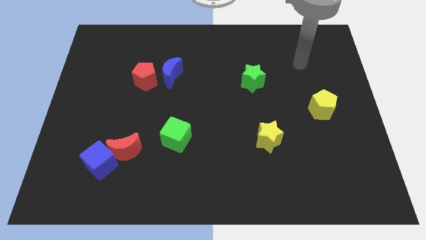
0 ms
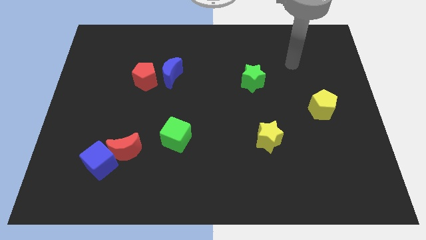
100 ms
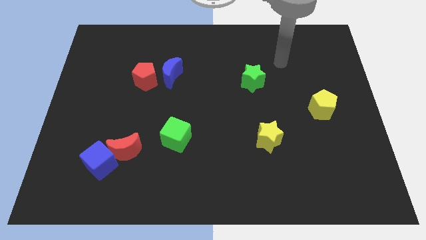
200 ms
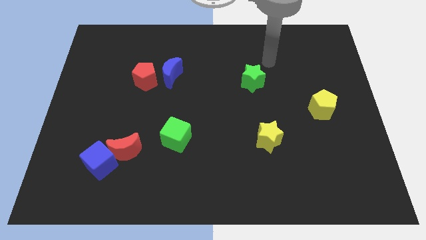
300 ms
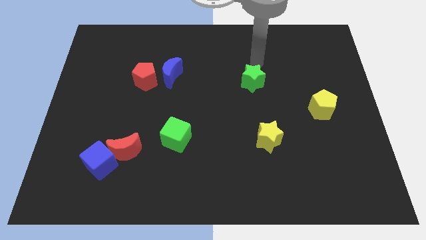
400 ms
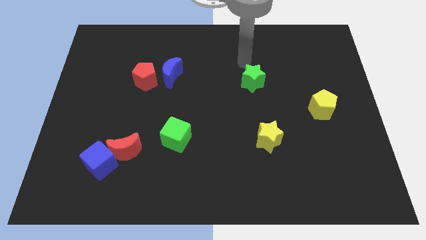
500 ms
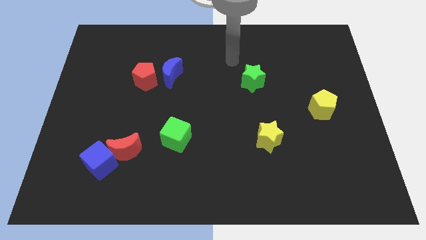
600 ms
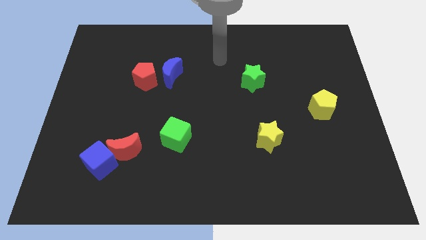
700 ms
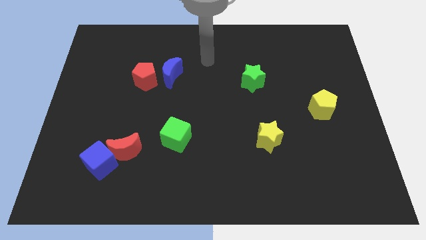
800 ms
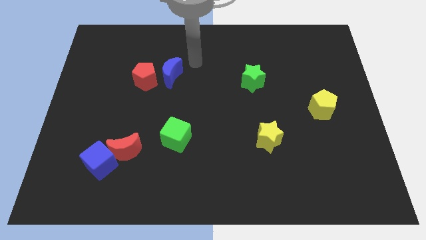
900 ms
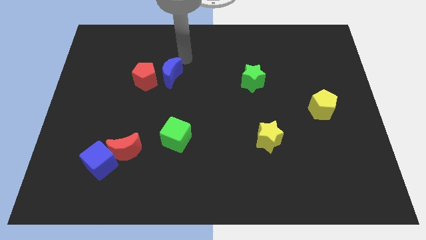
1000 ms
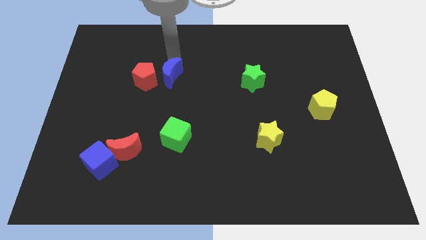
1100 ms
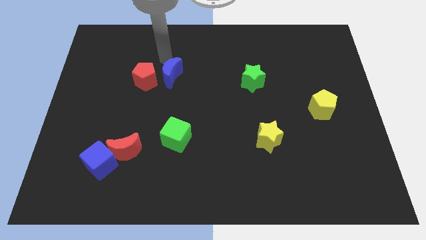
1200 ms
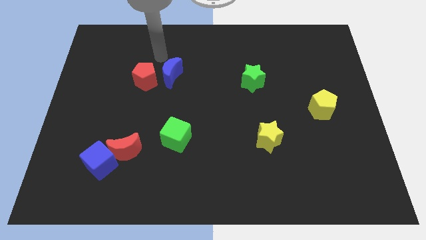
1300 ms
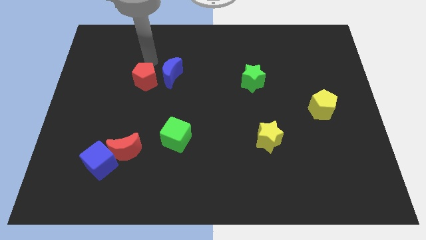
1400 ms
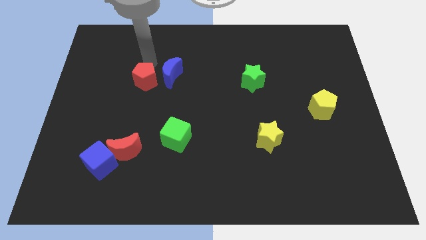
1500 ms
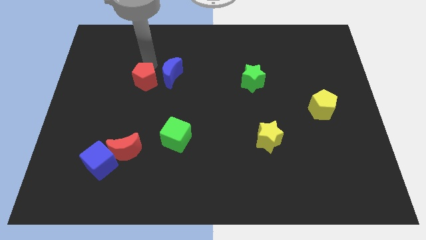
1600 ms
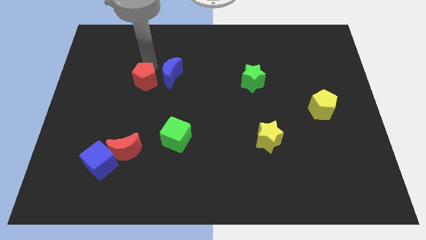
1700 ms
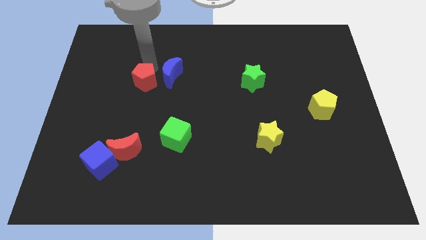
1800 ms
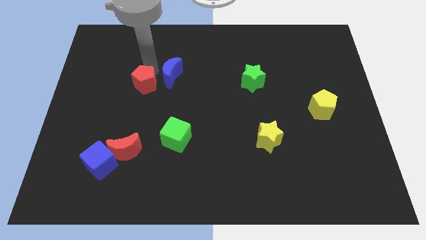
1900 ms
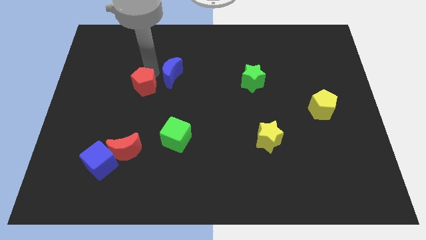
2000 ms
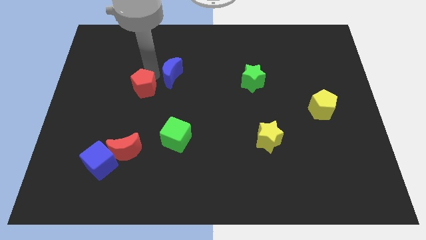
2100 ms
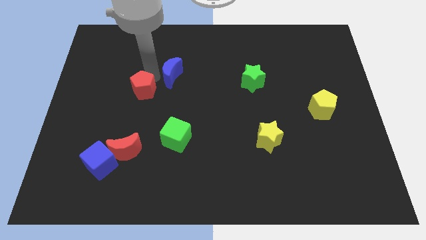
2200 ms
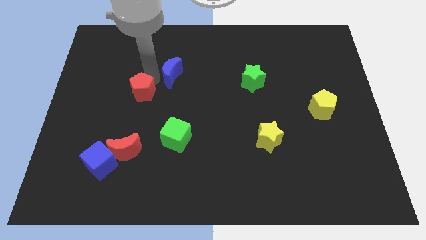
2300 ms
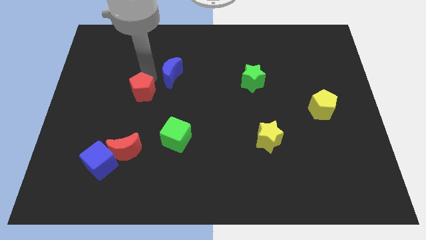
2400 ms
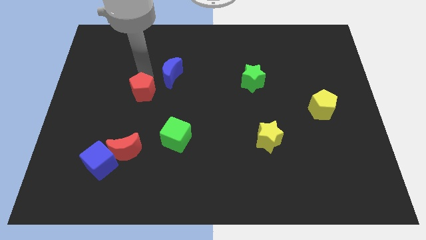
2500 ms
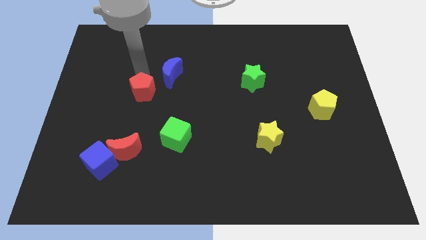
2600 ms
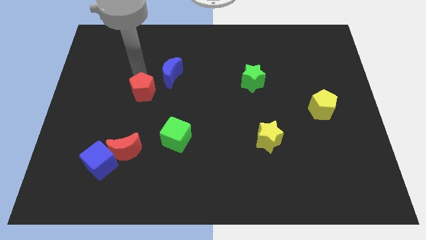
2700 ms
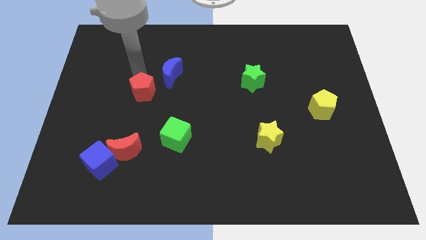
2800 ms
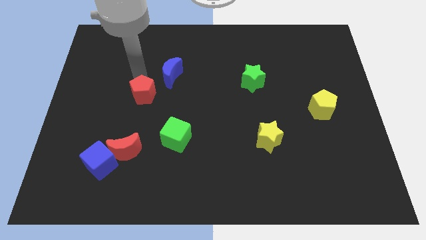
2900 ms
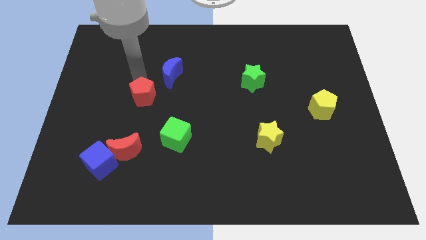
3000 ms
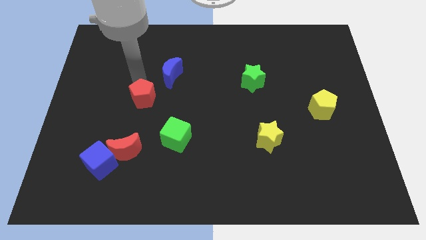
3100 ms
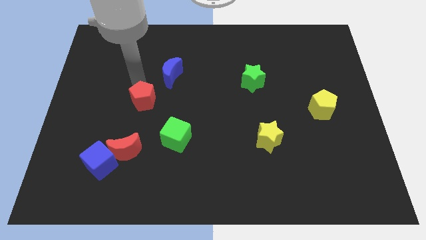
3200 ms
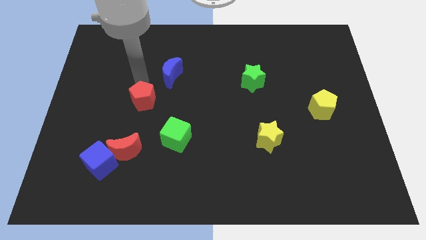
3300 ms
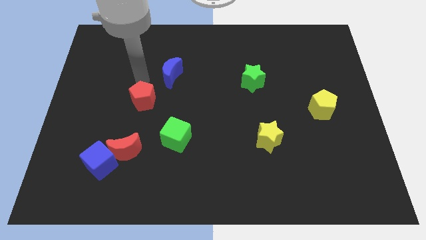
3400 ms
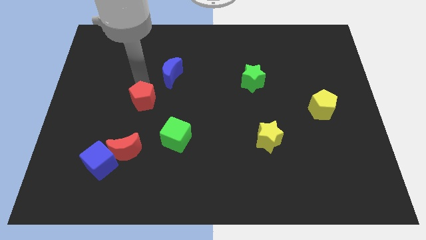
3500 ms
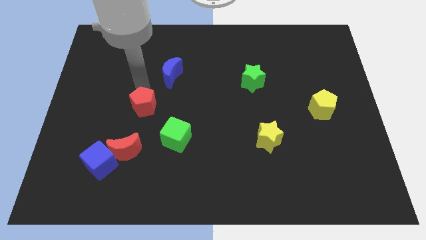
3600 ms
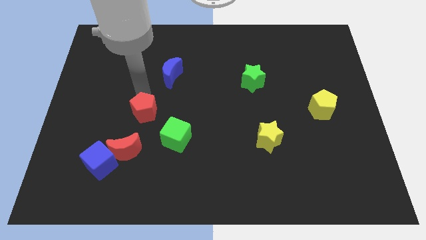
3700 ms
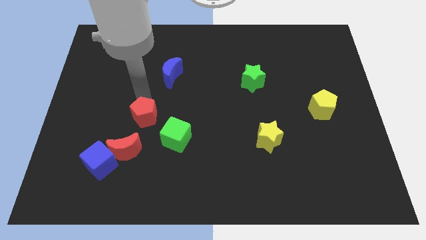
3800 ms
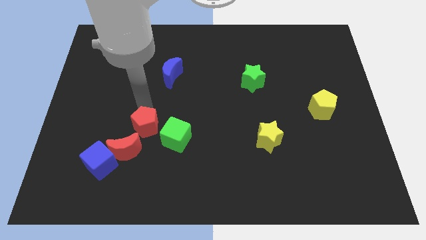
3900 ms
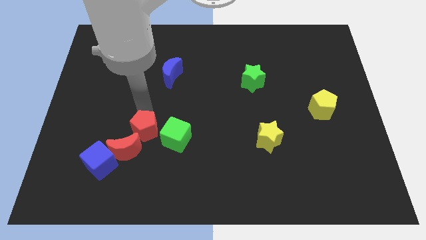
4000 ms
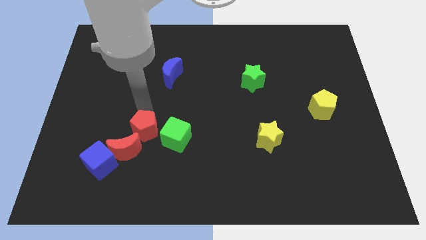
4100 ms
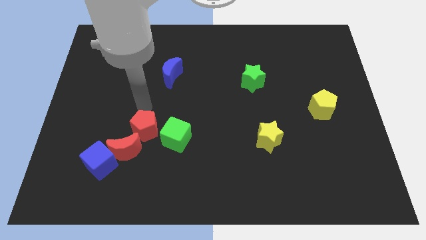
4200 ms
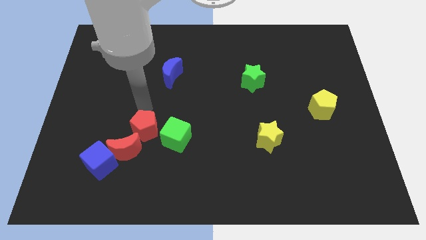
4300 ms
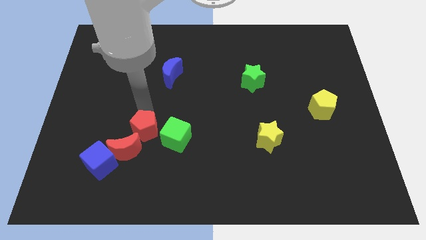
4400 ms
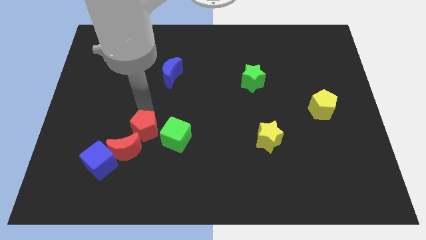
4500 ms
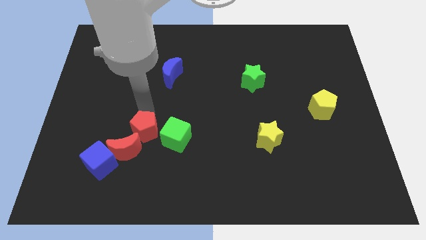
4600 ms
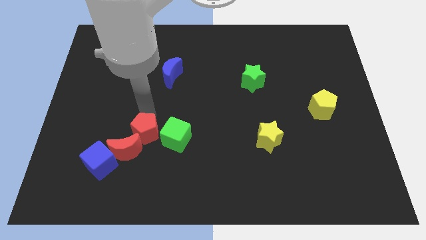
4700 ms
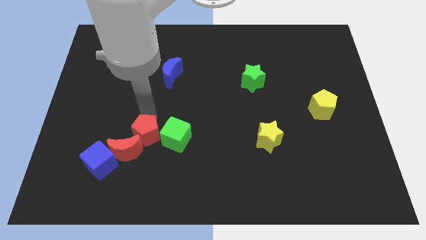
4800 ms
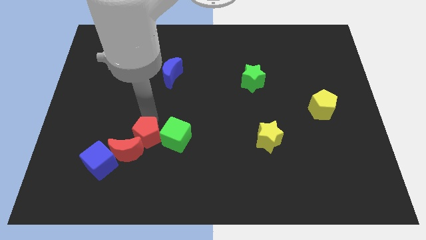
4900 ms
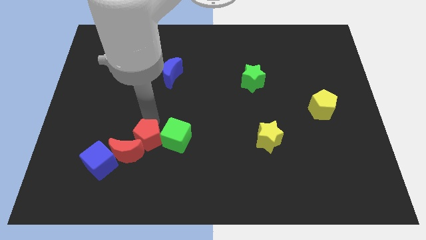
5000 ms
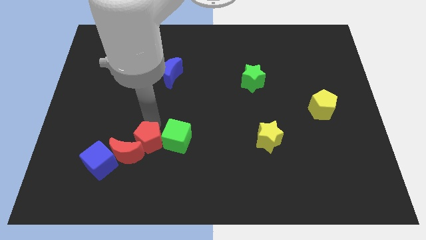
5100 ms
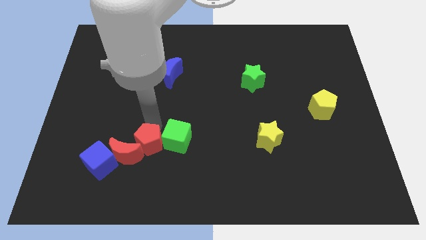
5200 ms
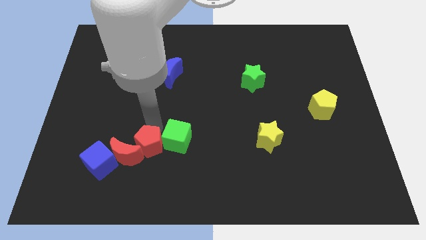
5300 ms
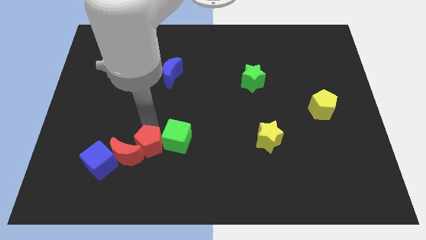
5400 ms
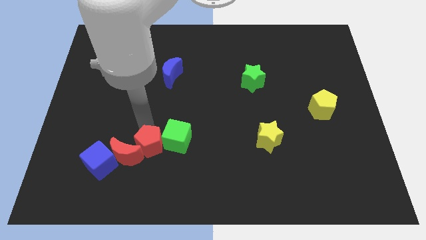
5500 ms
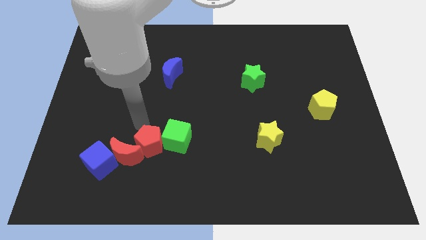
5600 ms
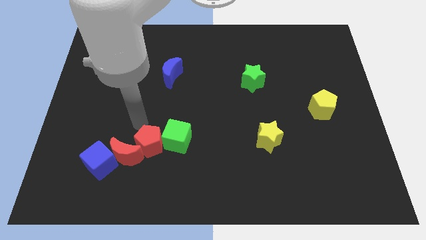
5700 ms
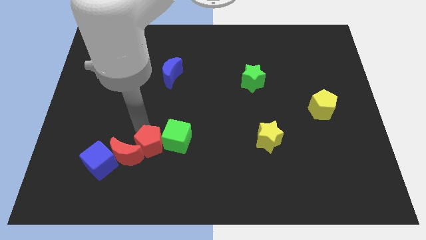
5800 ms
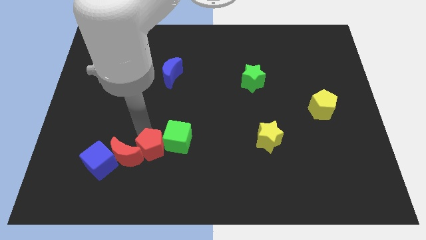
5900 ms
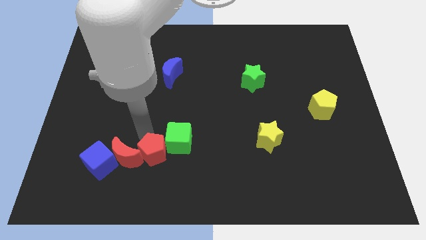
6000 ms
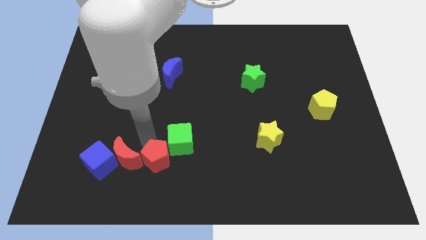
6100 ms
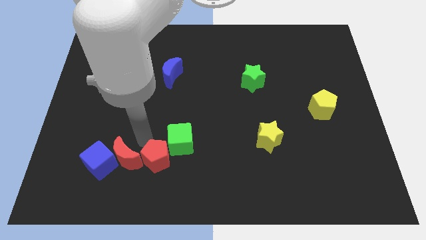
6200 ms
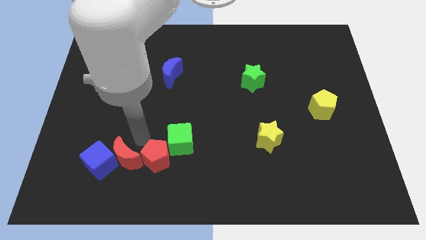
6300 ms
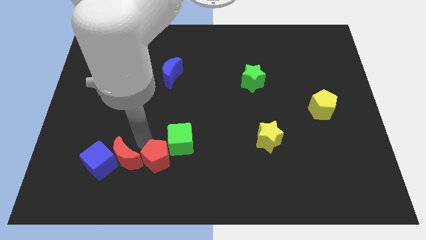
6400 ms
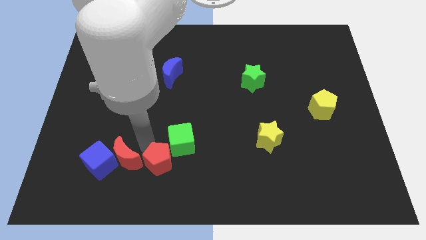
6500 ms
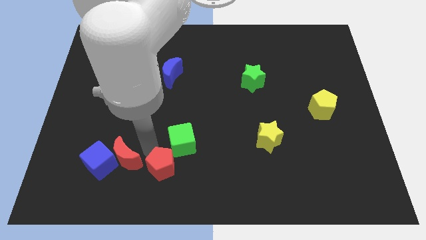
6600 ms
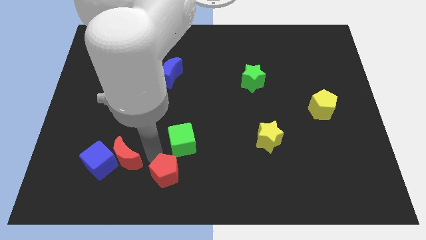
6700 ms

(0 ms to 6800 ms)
push the red pentagon to the bottom side
